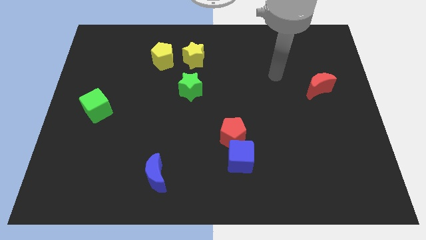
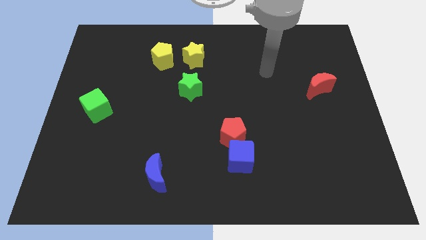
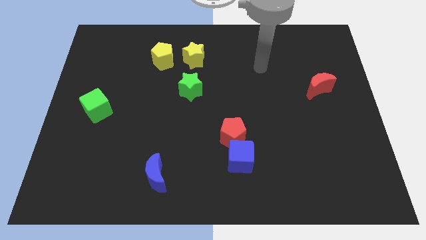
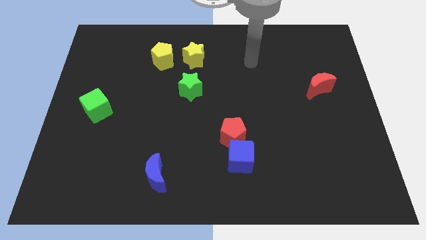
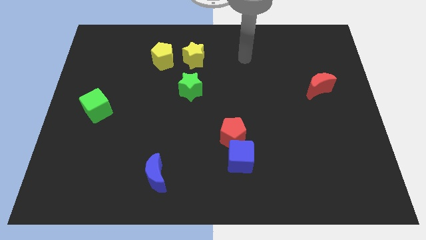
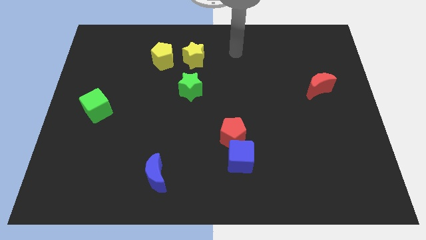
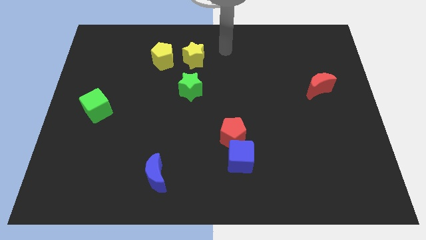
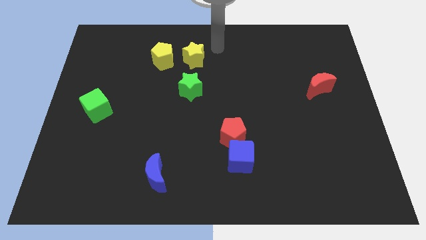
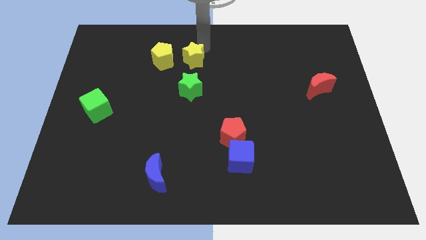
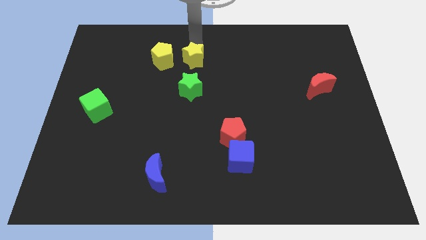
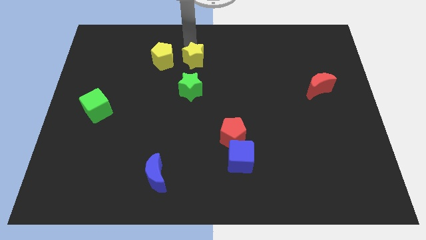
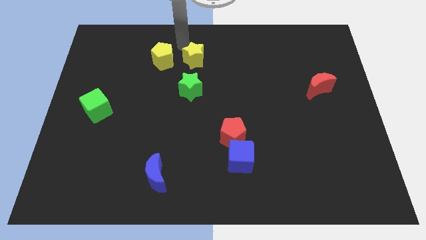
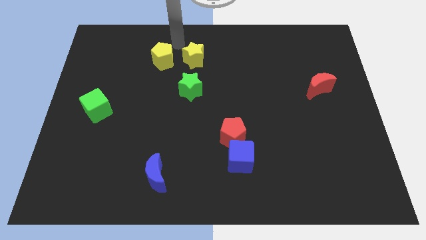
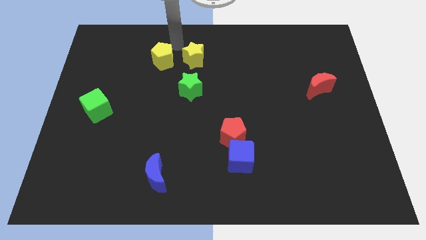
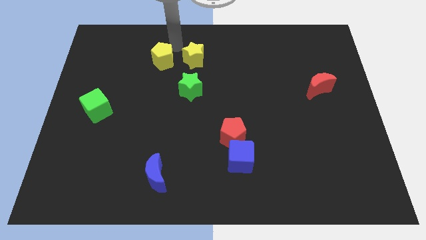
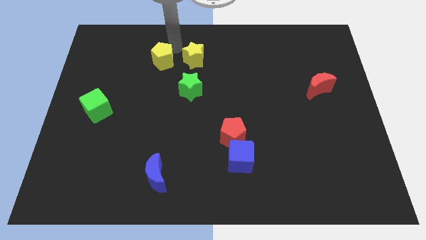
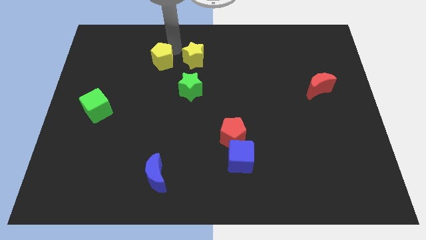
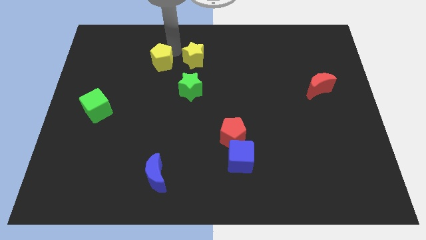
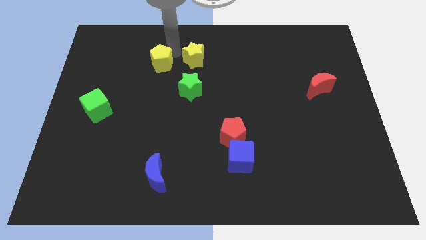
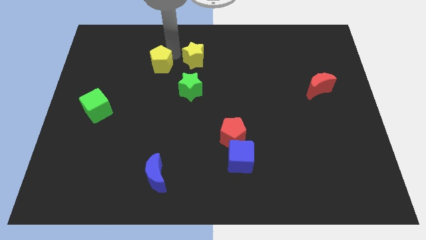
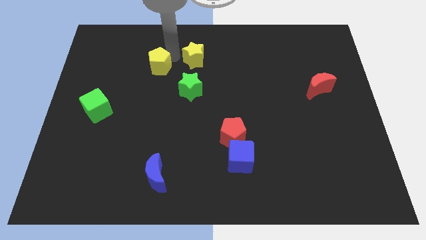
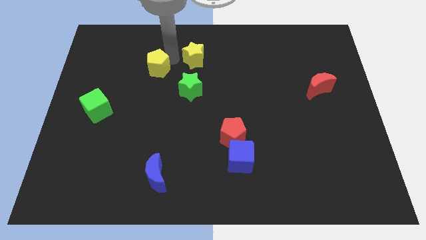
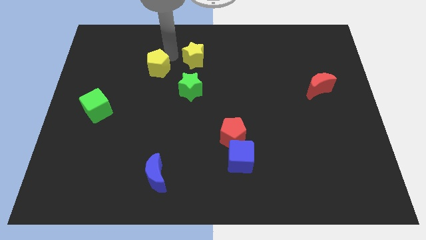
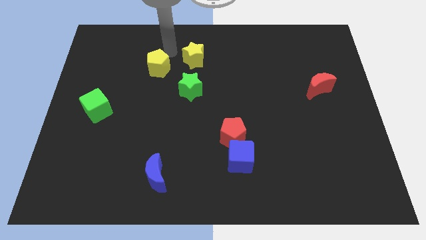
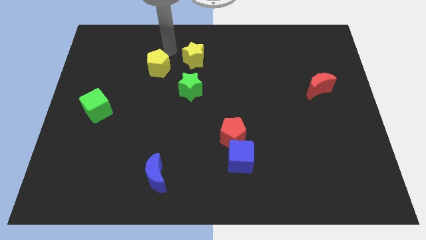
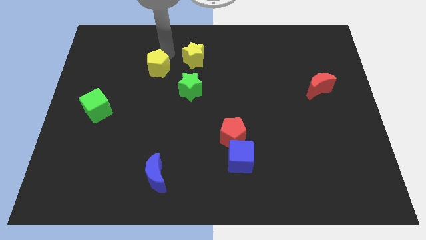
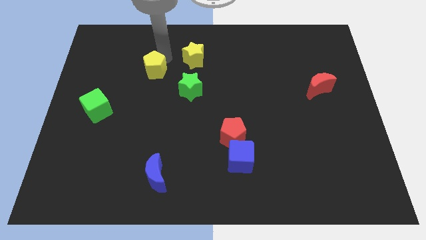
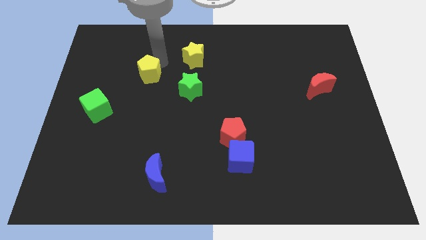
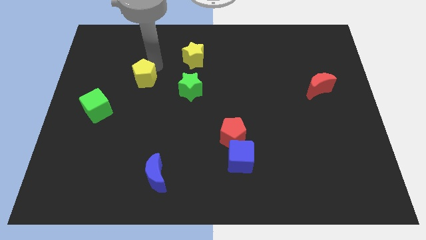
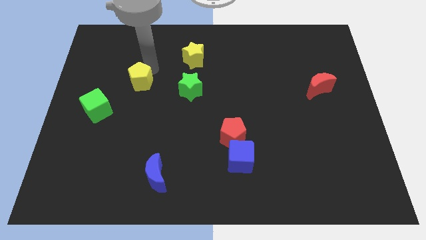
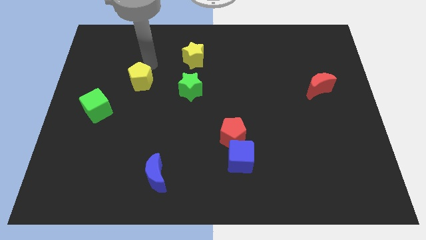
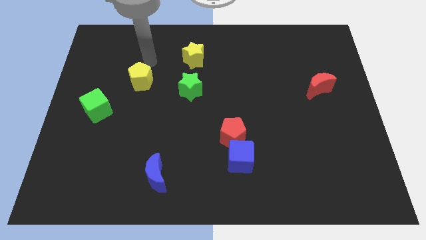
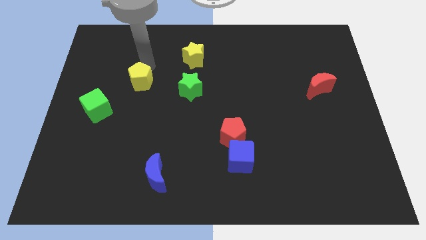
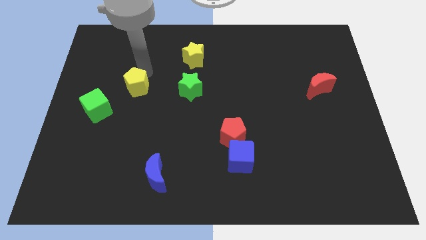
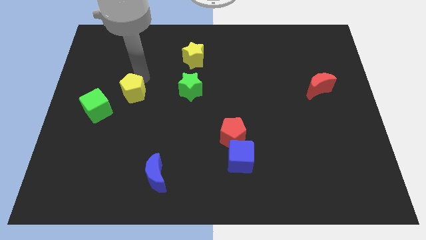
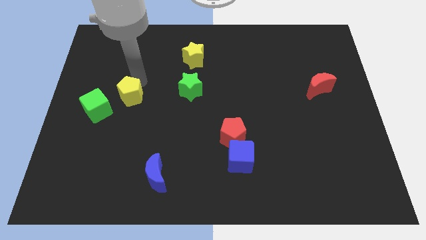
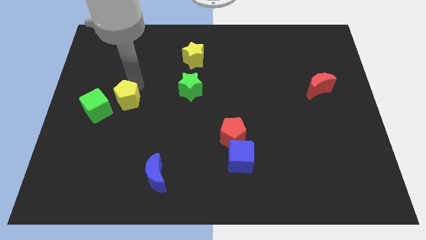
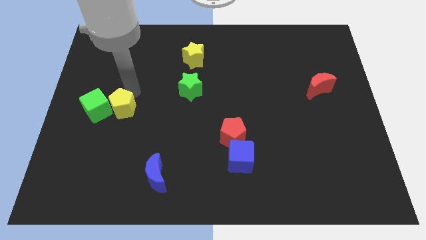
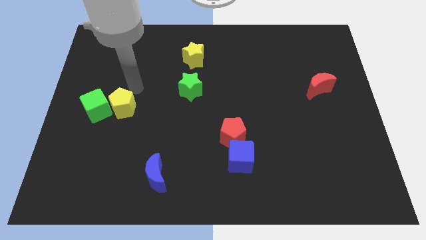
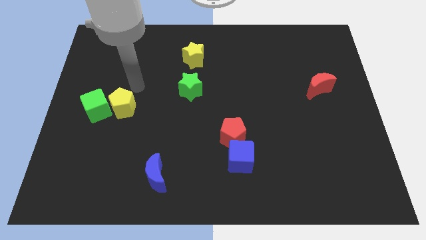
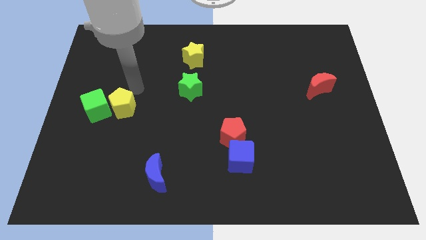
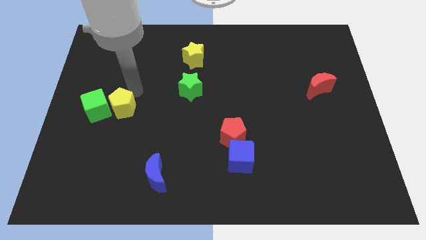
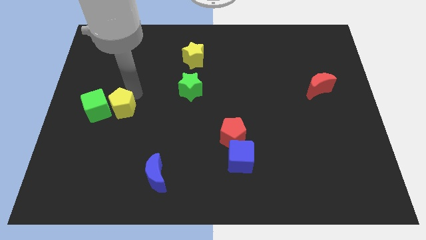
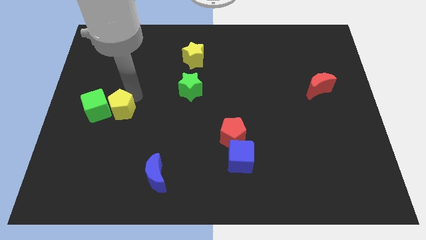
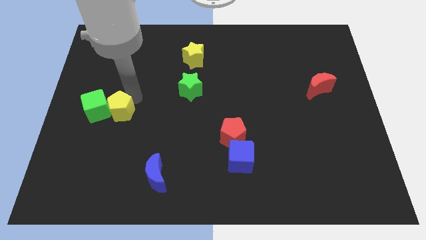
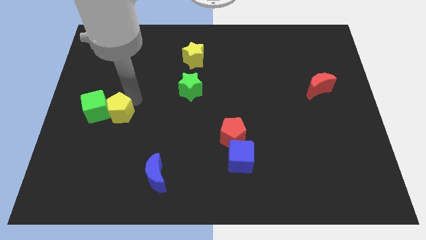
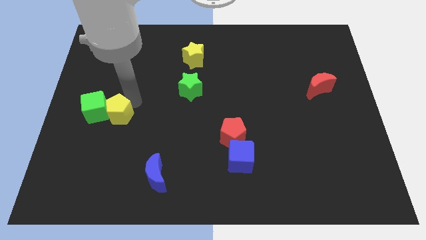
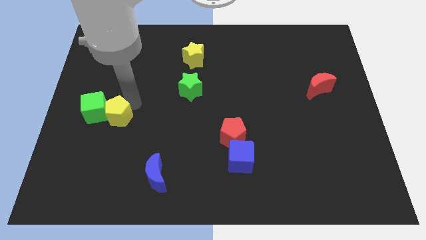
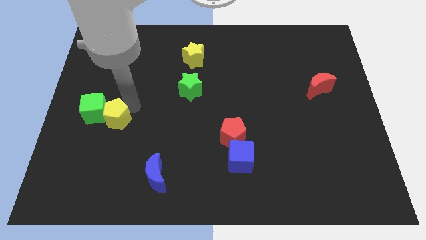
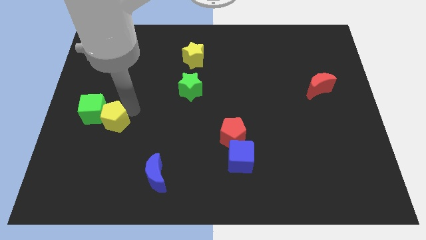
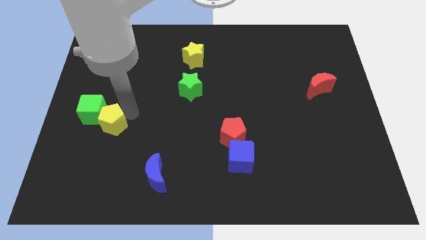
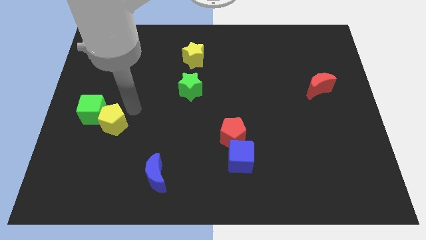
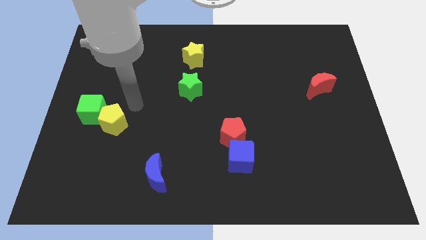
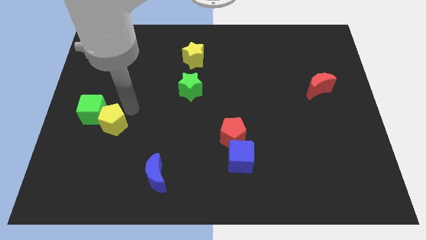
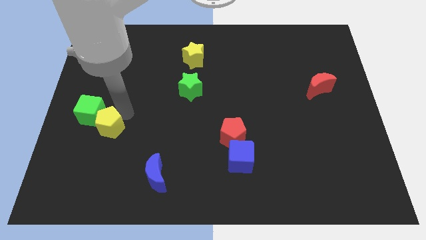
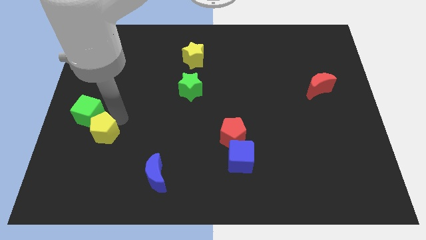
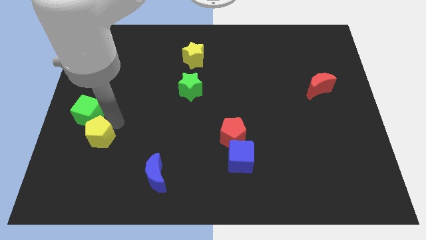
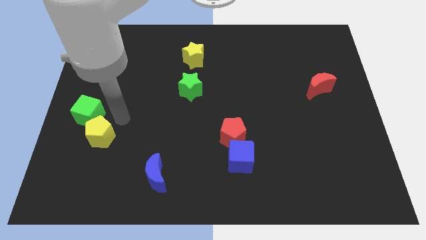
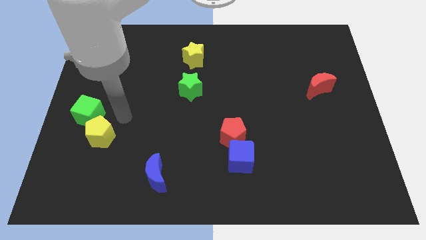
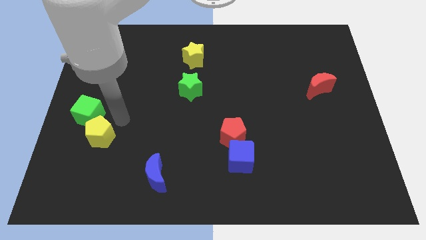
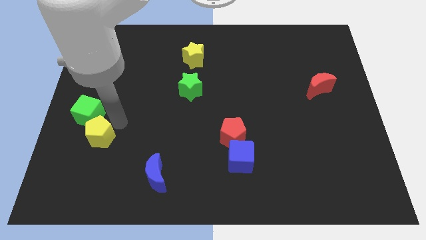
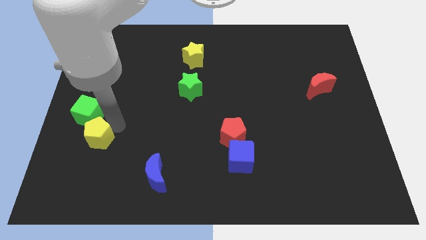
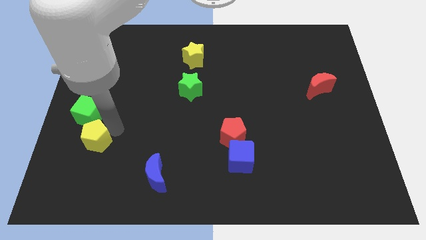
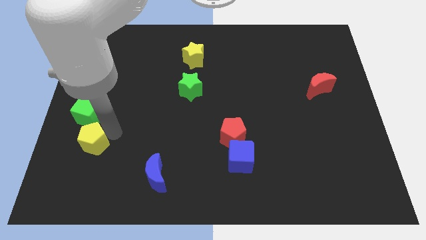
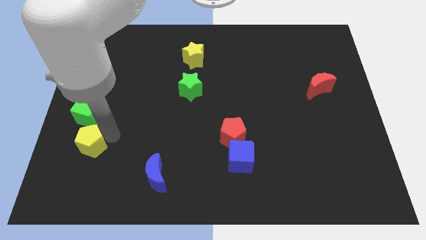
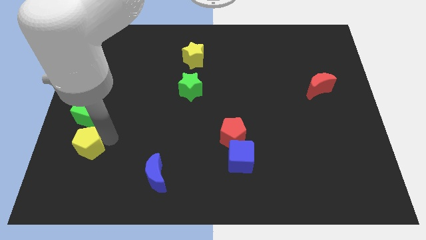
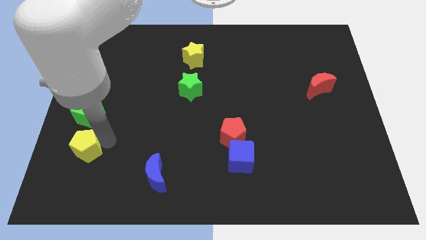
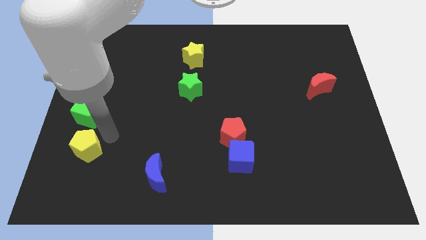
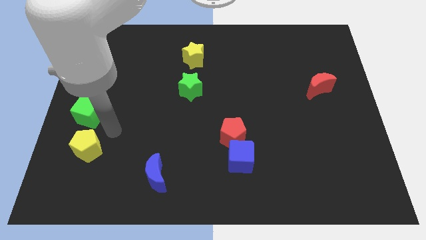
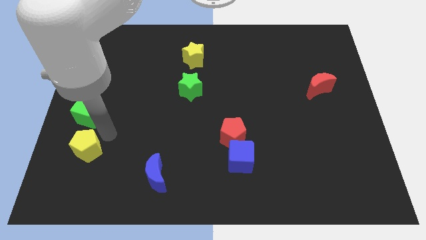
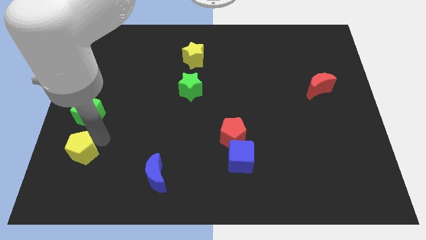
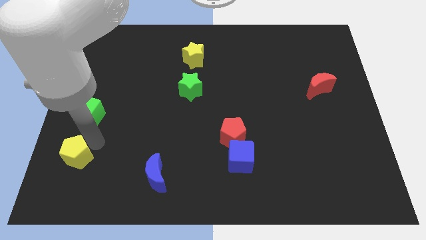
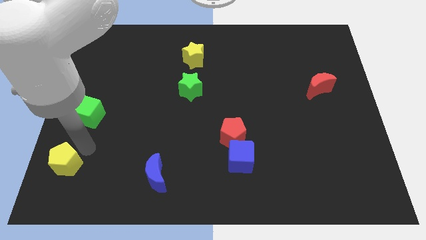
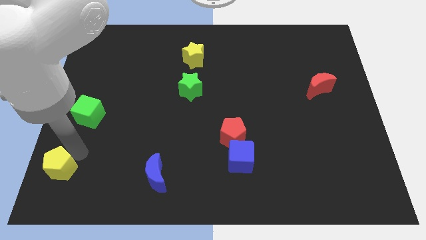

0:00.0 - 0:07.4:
put the yellow pentagon to the bottom left corner
